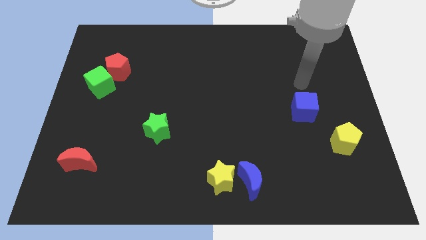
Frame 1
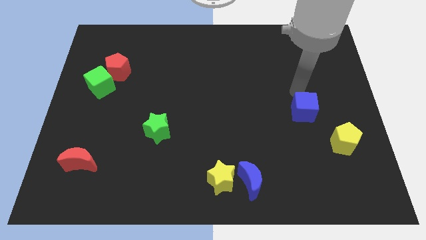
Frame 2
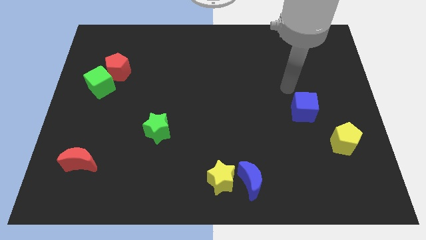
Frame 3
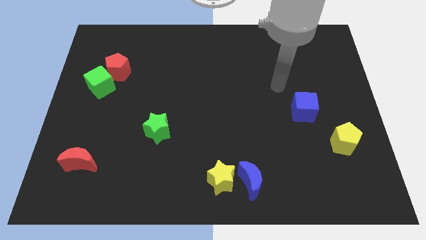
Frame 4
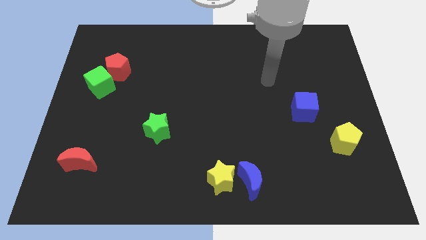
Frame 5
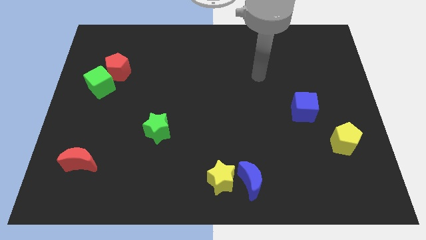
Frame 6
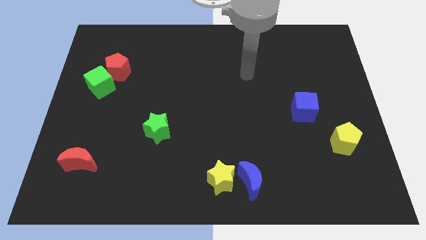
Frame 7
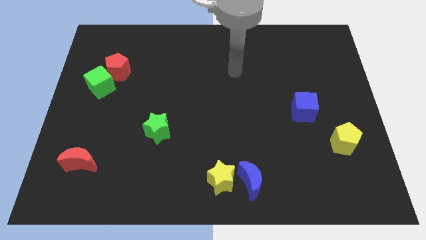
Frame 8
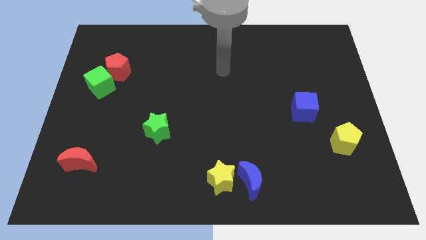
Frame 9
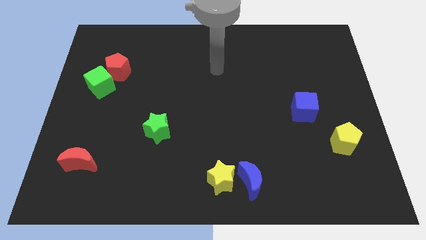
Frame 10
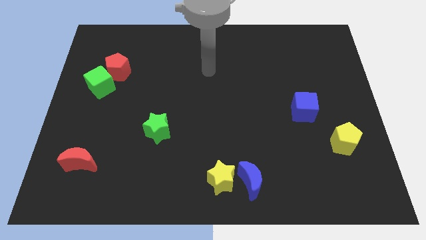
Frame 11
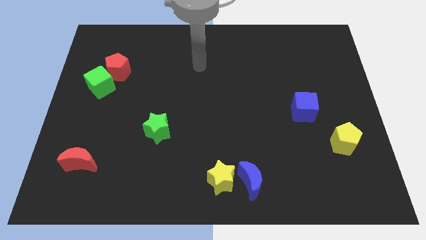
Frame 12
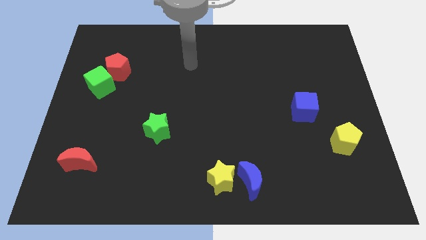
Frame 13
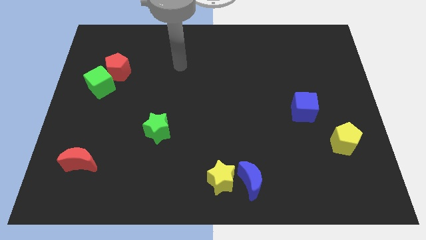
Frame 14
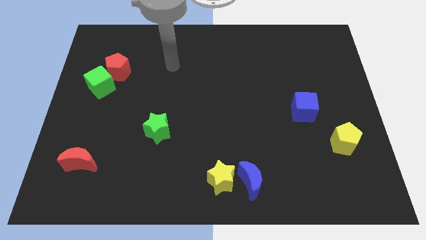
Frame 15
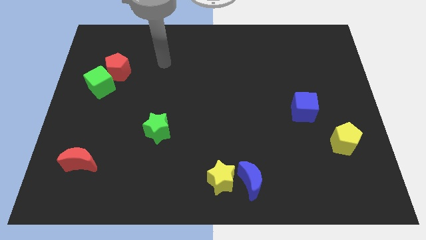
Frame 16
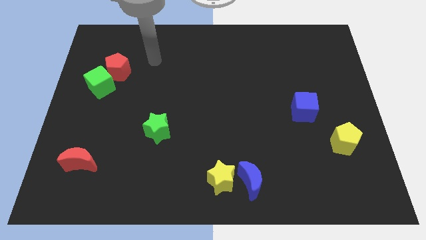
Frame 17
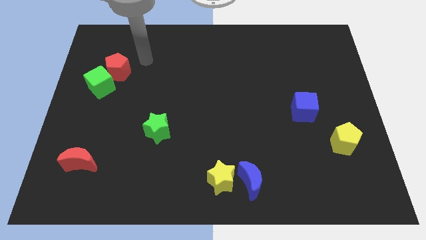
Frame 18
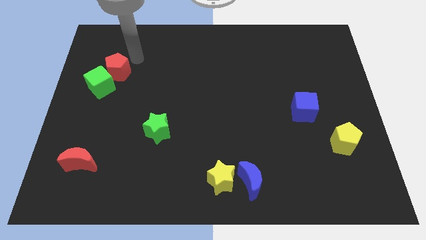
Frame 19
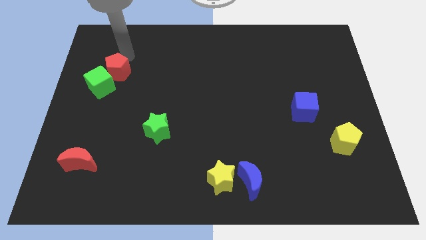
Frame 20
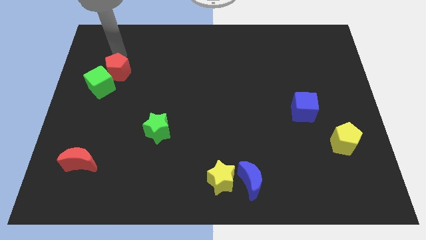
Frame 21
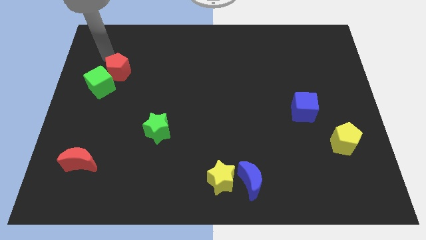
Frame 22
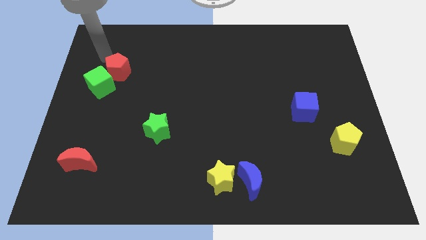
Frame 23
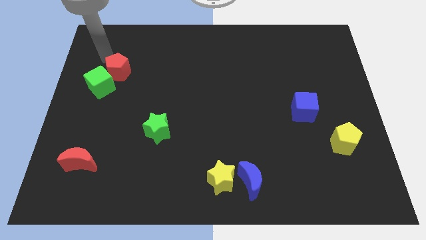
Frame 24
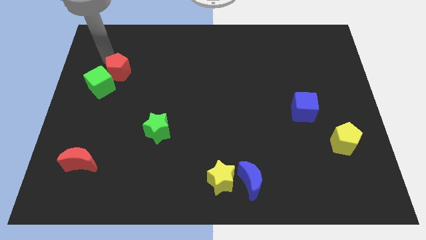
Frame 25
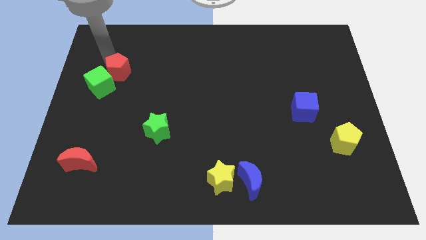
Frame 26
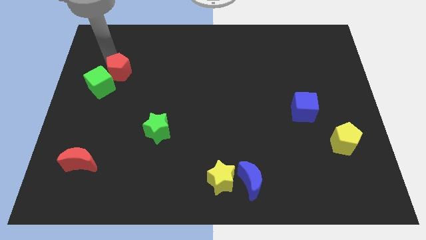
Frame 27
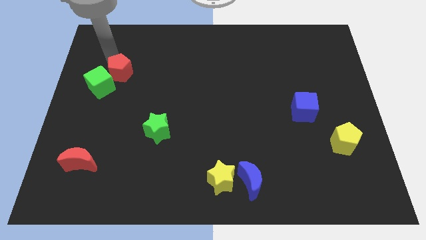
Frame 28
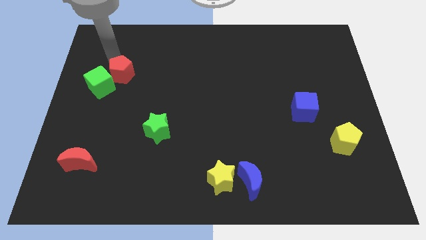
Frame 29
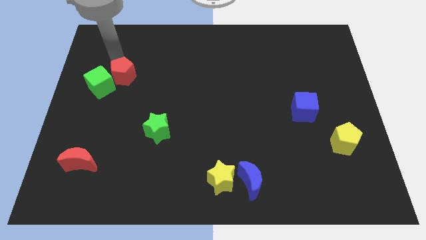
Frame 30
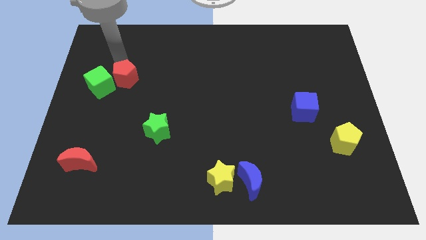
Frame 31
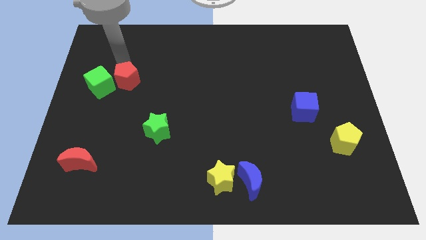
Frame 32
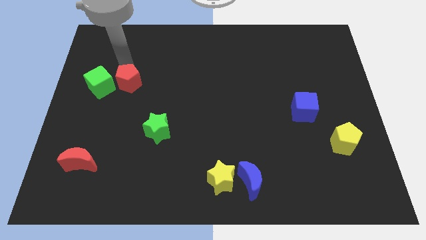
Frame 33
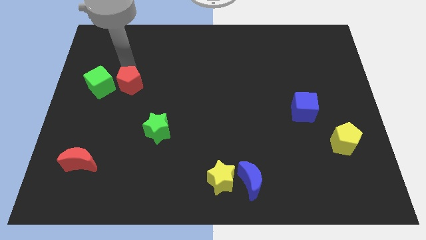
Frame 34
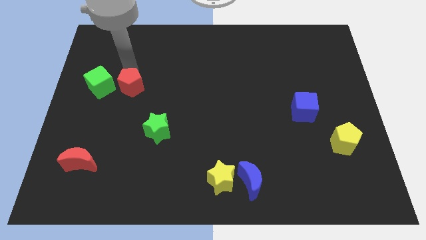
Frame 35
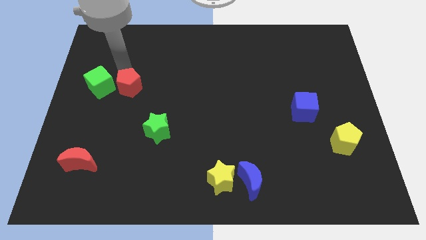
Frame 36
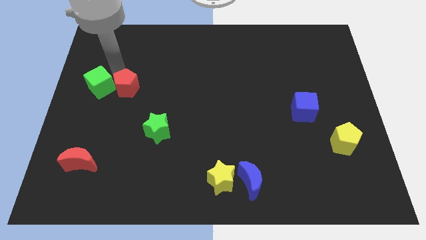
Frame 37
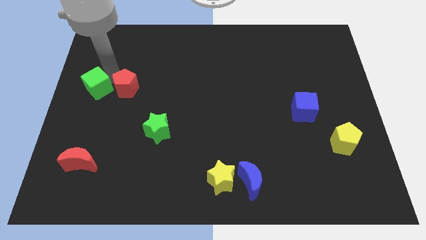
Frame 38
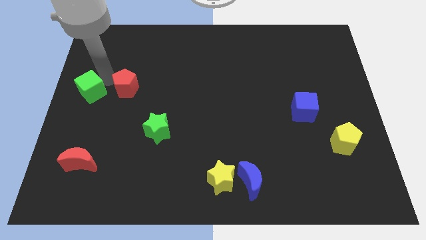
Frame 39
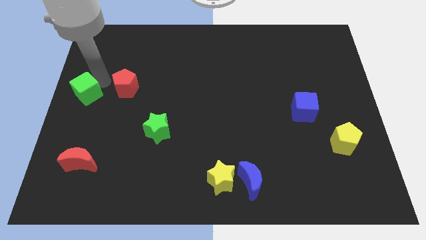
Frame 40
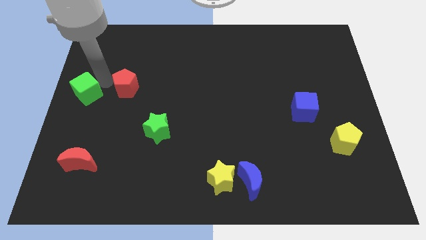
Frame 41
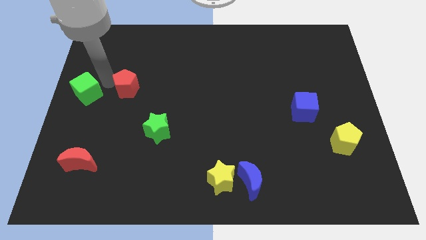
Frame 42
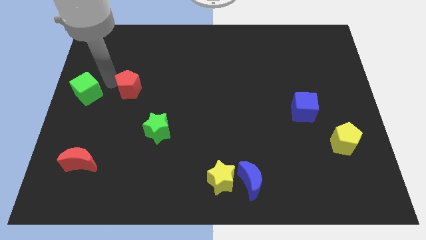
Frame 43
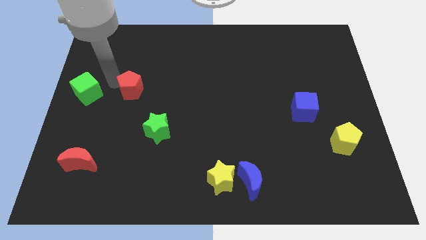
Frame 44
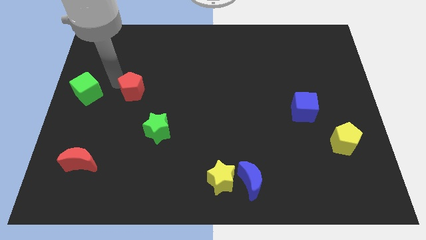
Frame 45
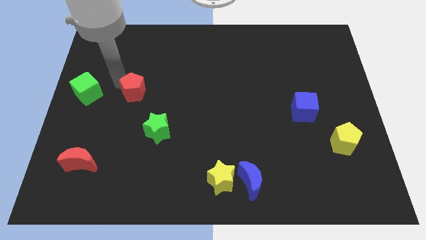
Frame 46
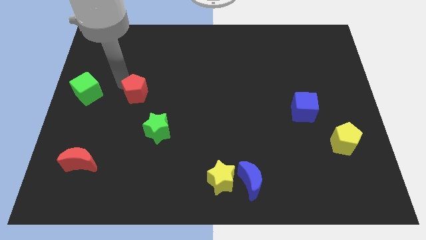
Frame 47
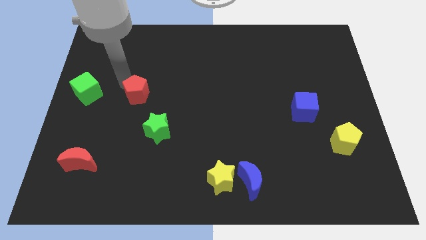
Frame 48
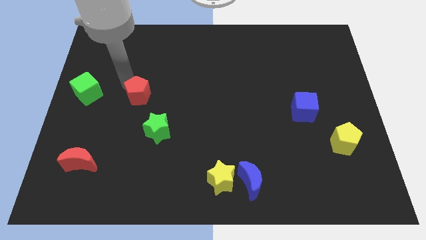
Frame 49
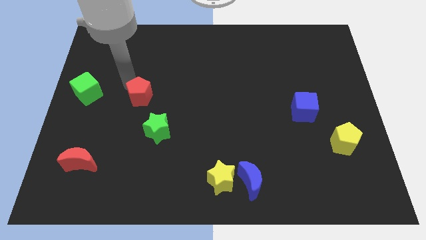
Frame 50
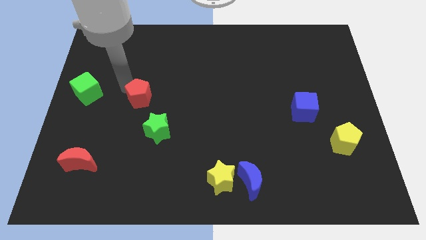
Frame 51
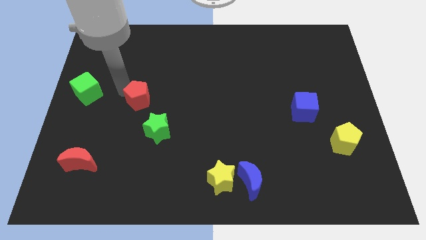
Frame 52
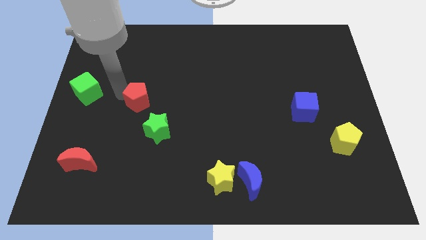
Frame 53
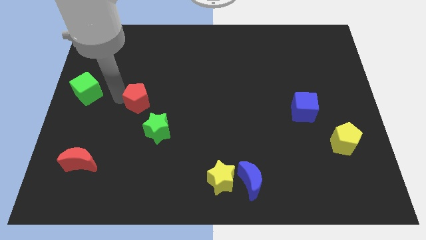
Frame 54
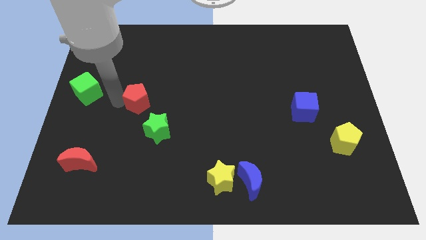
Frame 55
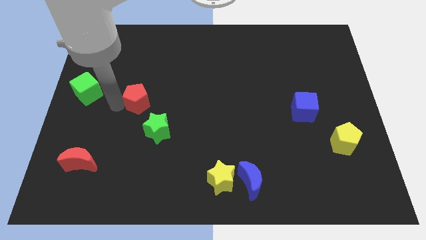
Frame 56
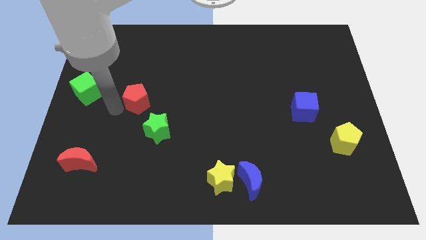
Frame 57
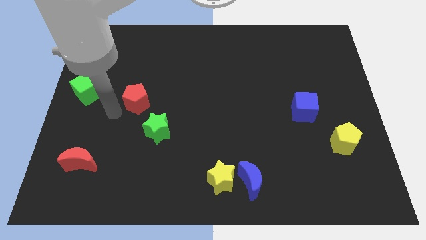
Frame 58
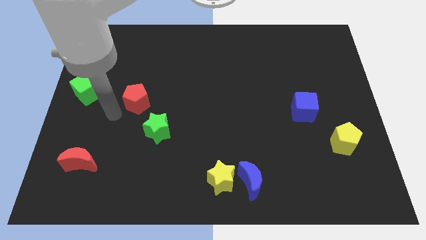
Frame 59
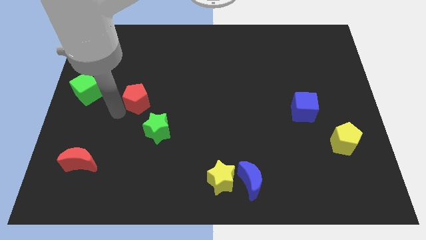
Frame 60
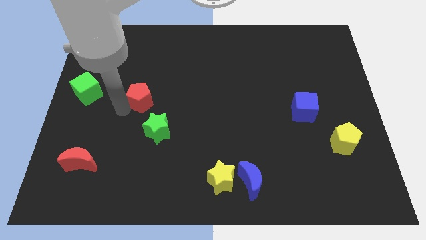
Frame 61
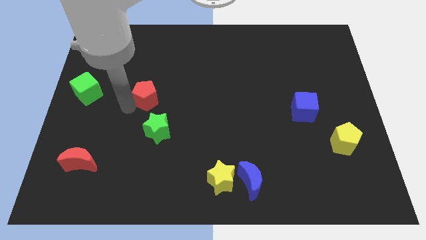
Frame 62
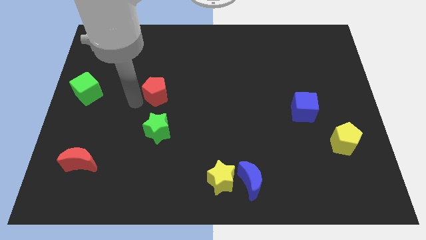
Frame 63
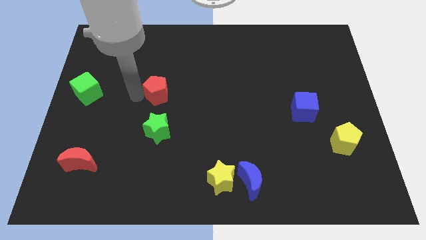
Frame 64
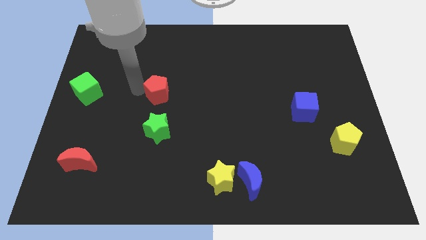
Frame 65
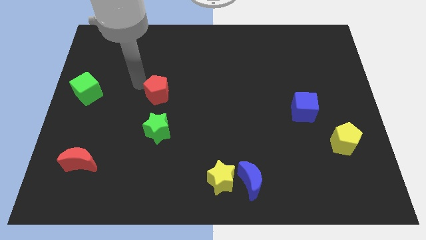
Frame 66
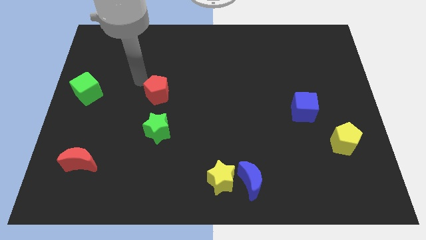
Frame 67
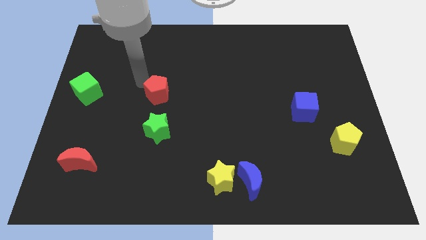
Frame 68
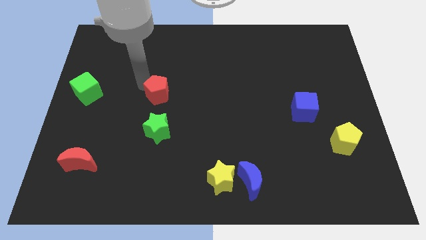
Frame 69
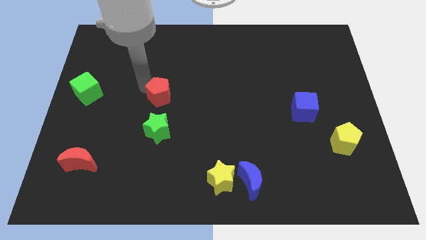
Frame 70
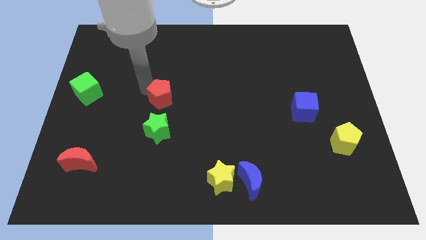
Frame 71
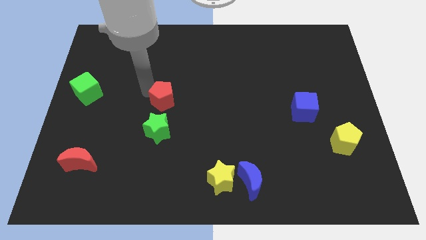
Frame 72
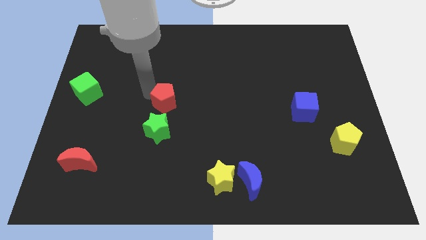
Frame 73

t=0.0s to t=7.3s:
push the red pentagon to the top right side of the green star
